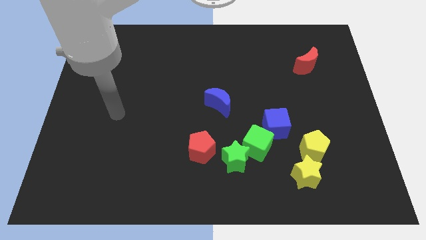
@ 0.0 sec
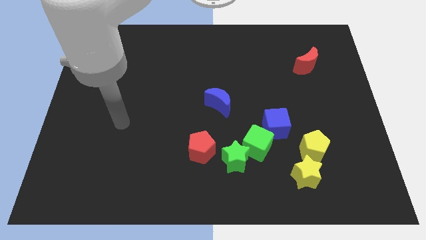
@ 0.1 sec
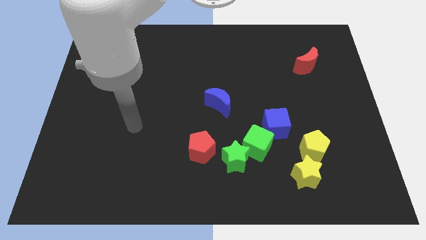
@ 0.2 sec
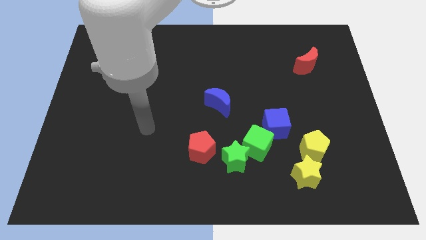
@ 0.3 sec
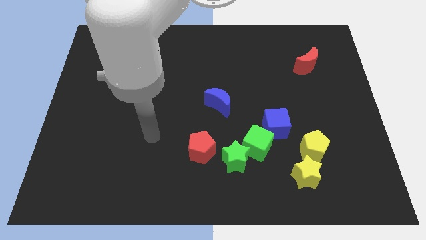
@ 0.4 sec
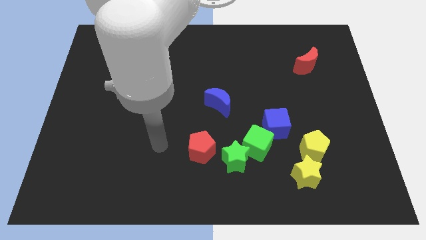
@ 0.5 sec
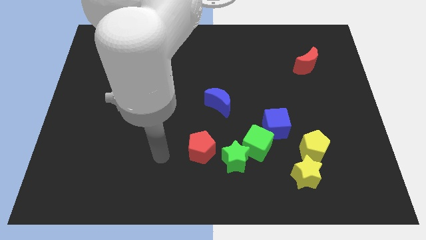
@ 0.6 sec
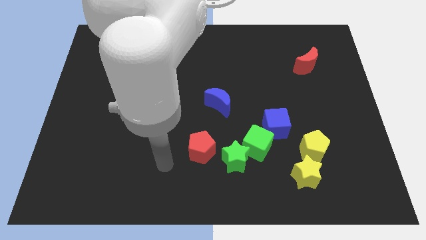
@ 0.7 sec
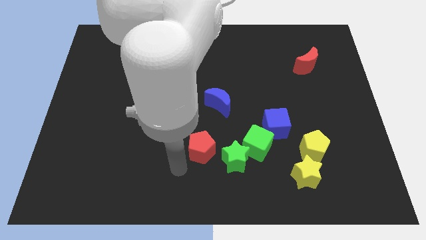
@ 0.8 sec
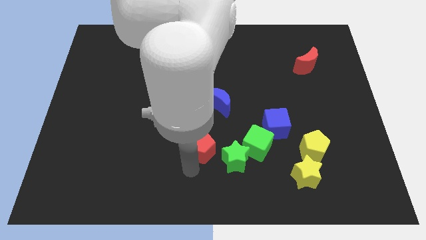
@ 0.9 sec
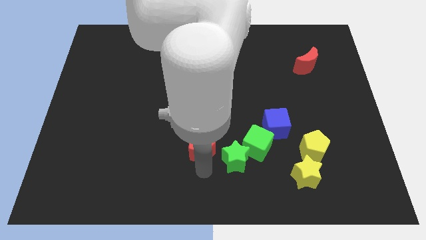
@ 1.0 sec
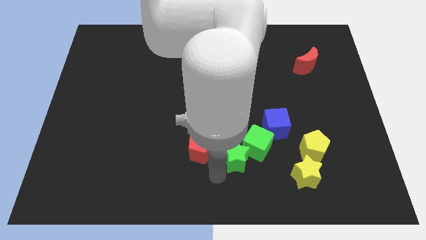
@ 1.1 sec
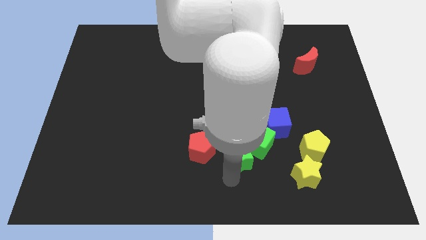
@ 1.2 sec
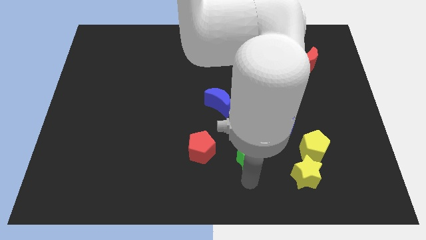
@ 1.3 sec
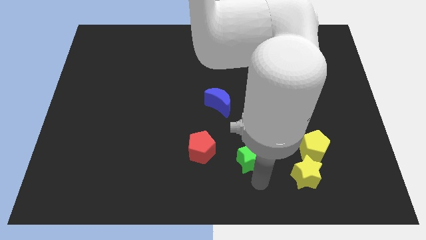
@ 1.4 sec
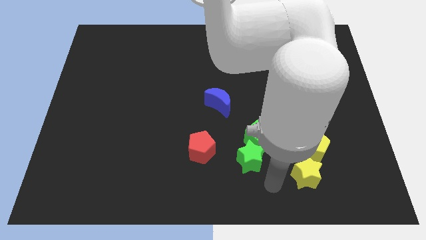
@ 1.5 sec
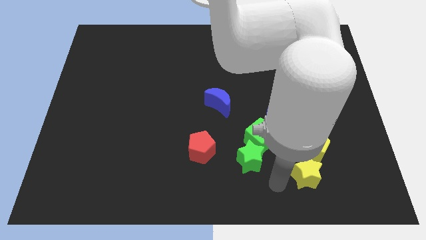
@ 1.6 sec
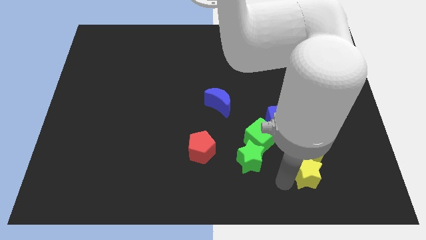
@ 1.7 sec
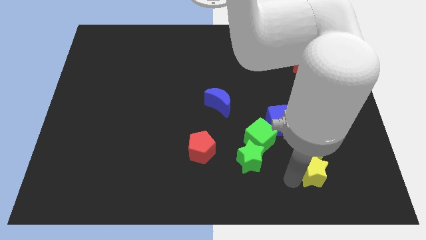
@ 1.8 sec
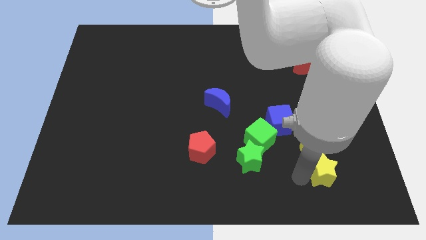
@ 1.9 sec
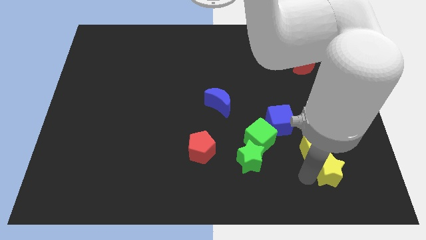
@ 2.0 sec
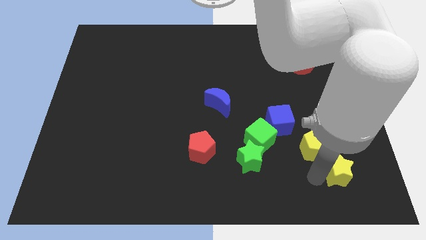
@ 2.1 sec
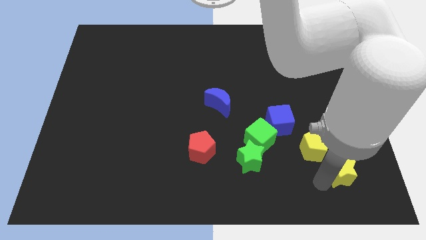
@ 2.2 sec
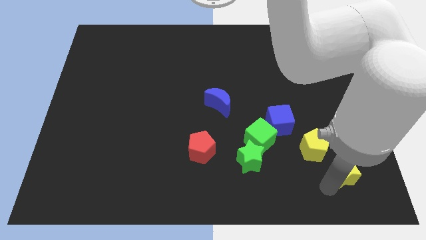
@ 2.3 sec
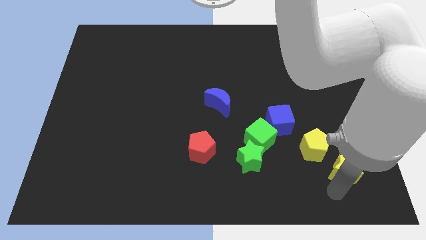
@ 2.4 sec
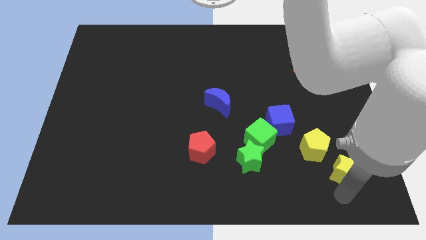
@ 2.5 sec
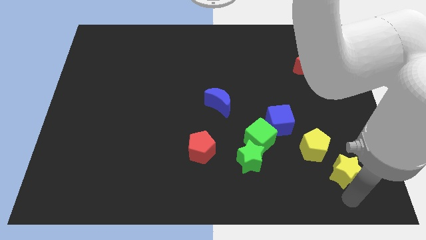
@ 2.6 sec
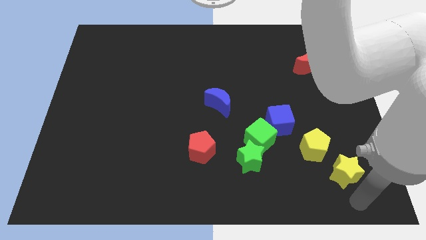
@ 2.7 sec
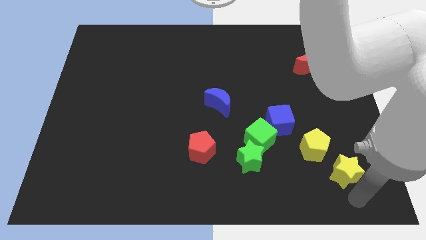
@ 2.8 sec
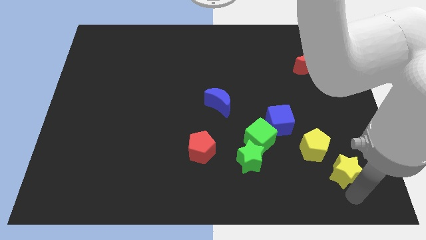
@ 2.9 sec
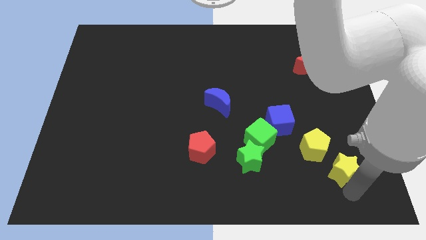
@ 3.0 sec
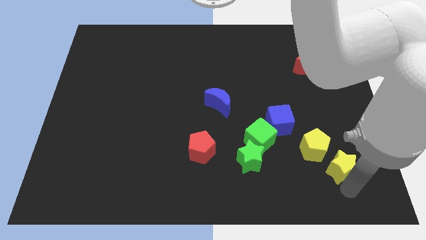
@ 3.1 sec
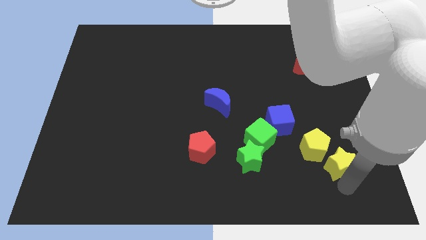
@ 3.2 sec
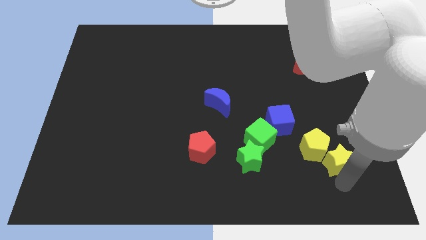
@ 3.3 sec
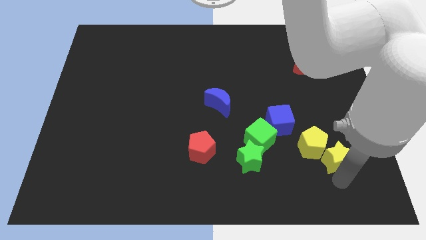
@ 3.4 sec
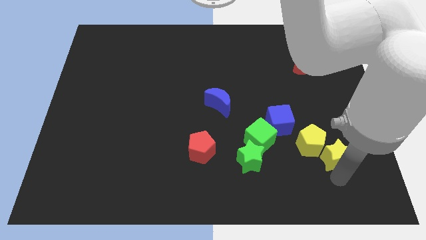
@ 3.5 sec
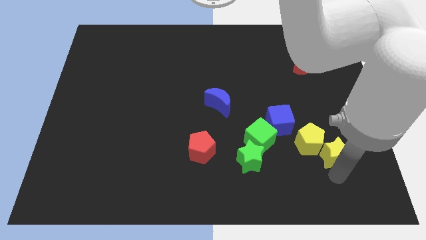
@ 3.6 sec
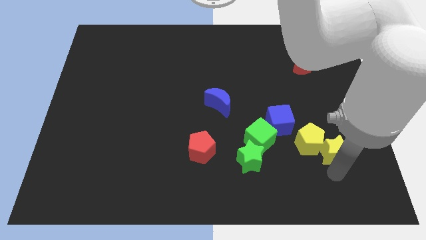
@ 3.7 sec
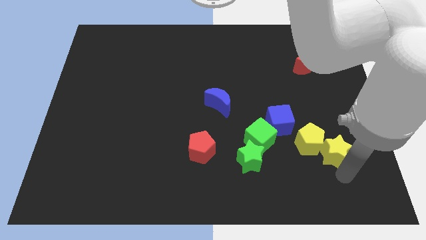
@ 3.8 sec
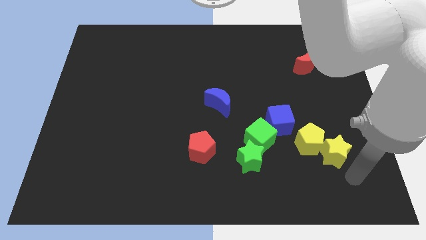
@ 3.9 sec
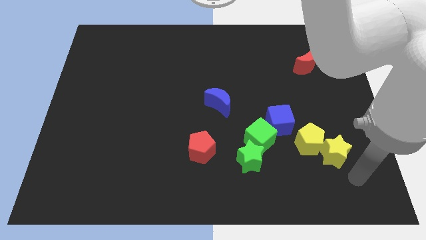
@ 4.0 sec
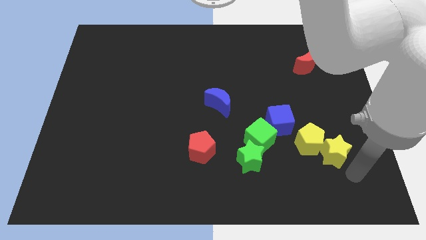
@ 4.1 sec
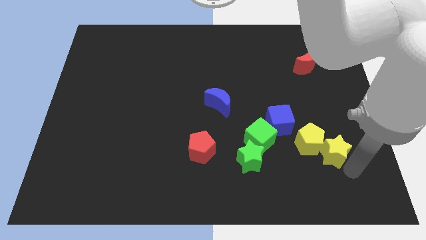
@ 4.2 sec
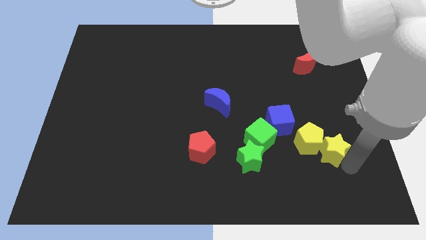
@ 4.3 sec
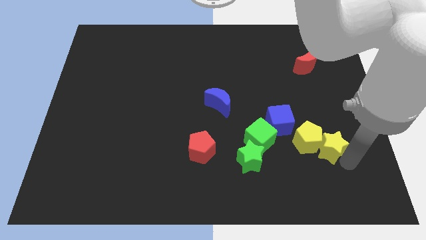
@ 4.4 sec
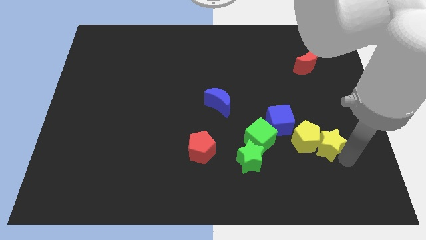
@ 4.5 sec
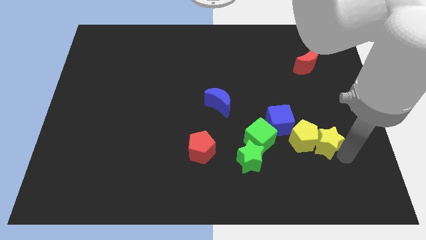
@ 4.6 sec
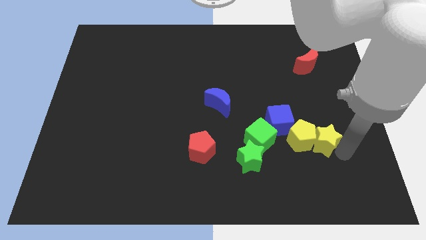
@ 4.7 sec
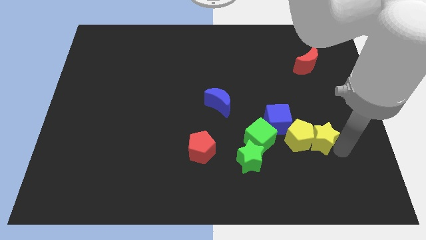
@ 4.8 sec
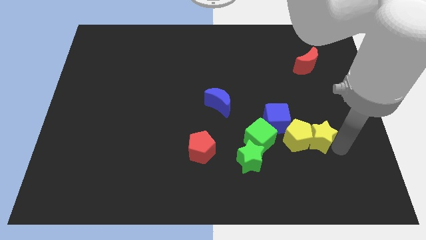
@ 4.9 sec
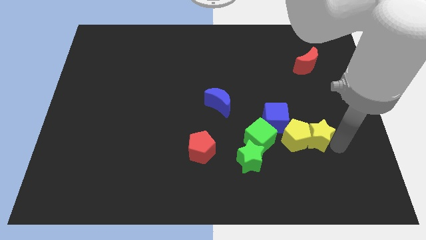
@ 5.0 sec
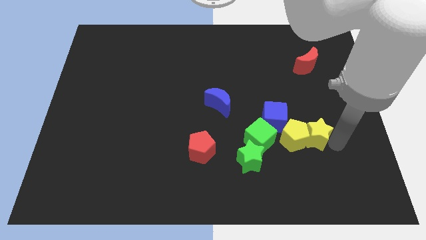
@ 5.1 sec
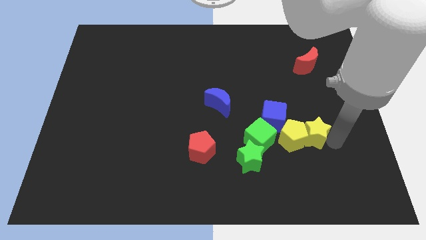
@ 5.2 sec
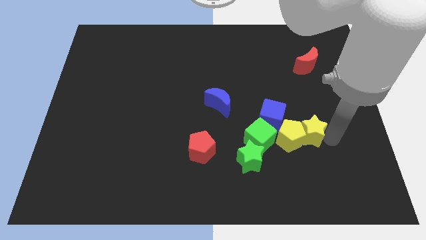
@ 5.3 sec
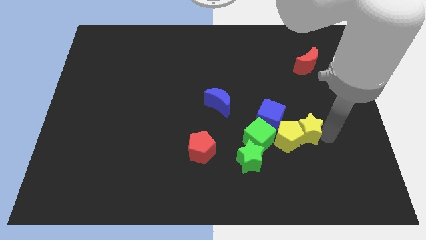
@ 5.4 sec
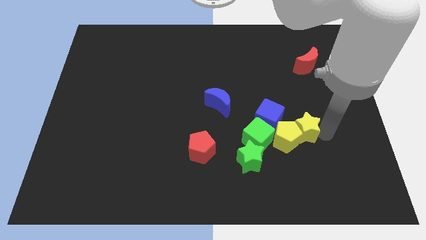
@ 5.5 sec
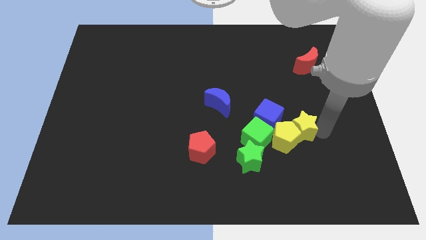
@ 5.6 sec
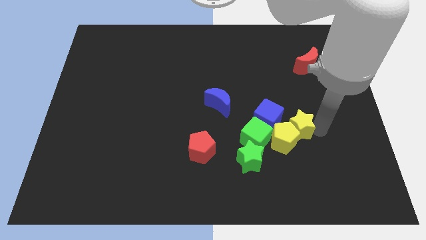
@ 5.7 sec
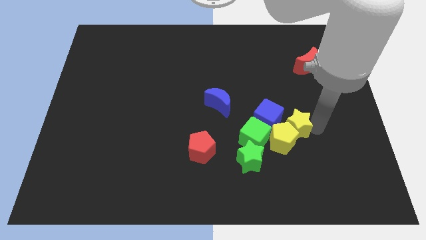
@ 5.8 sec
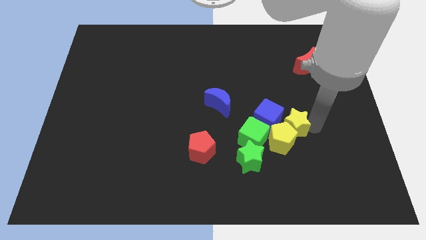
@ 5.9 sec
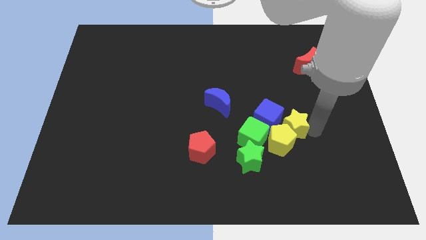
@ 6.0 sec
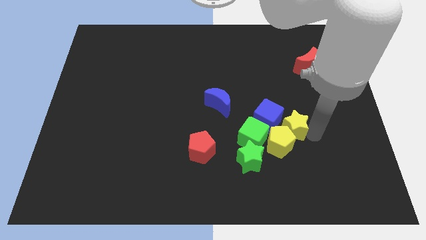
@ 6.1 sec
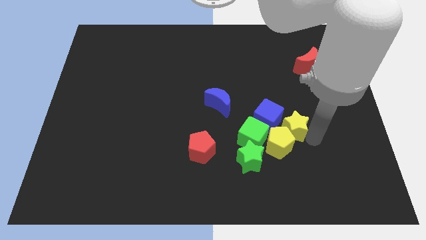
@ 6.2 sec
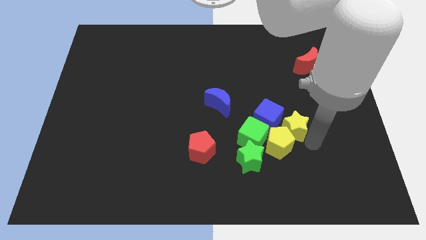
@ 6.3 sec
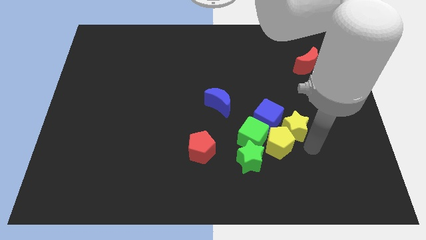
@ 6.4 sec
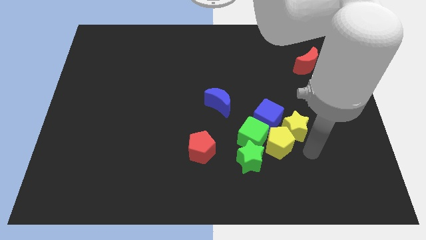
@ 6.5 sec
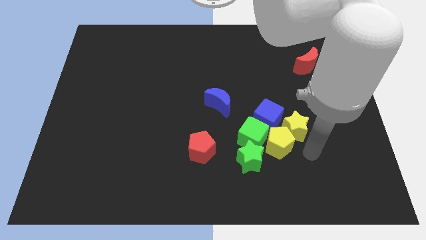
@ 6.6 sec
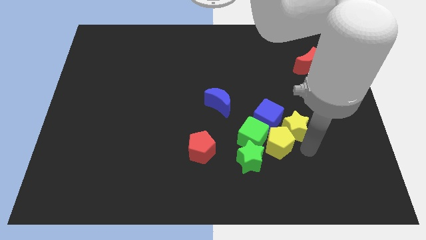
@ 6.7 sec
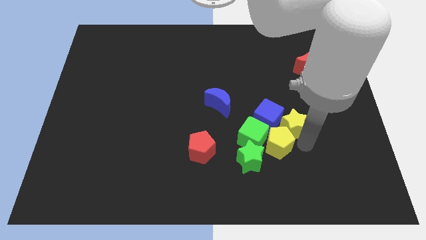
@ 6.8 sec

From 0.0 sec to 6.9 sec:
move the yellow star diagonally upwards and to the left a little bit

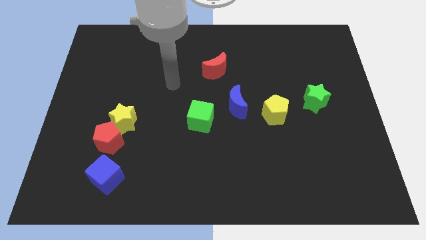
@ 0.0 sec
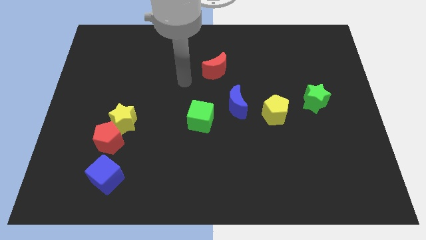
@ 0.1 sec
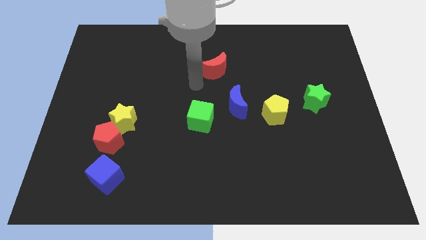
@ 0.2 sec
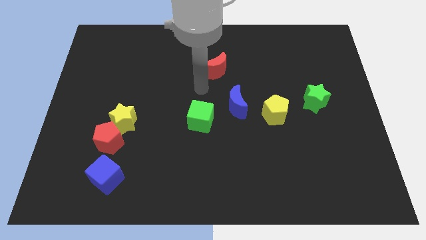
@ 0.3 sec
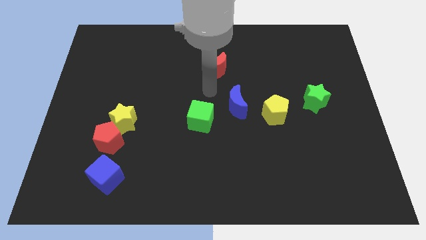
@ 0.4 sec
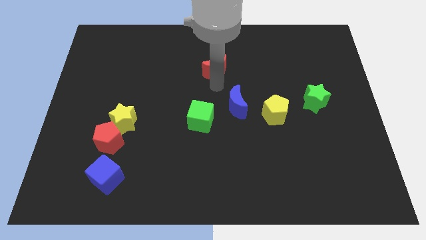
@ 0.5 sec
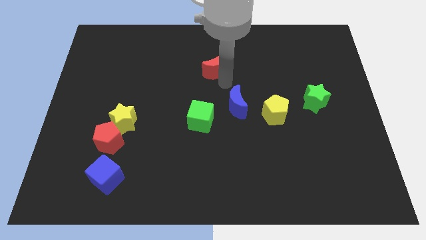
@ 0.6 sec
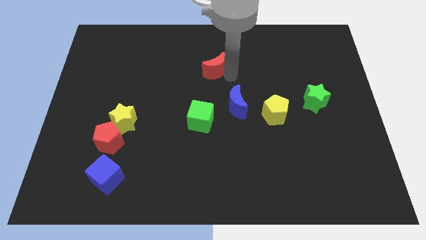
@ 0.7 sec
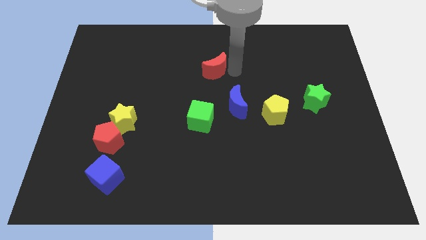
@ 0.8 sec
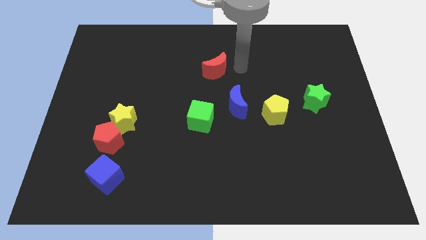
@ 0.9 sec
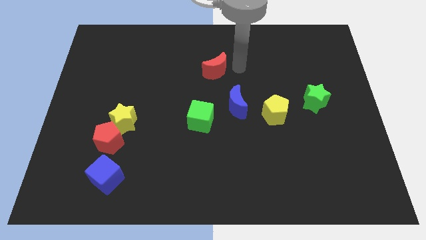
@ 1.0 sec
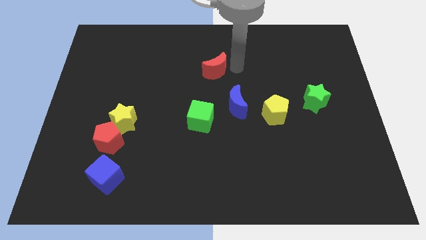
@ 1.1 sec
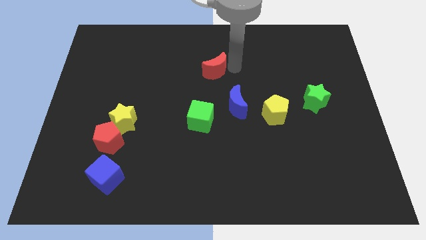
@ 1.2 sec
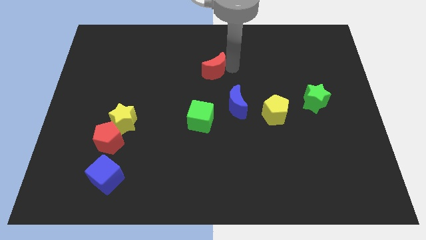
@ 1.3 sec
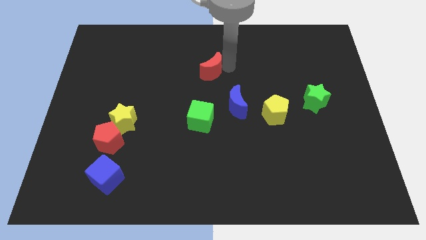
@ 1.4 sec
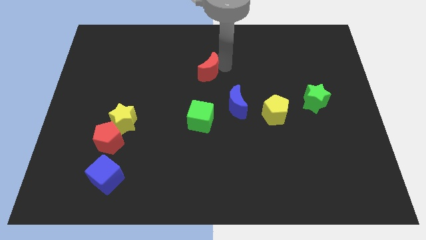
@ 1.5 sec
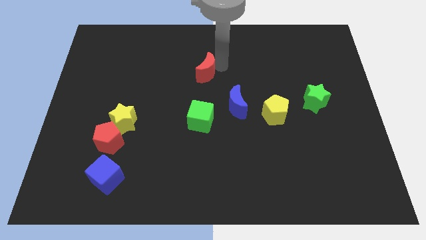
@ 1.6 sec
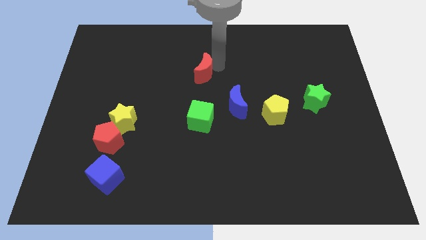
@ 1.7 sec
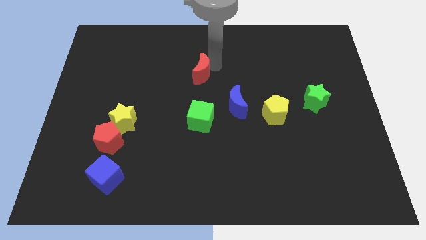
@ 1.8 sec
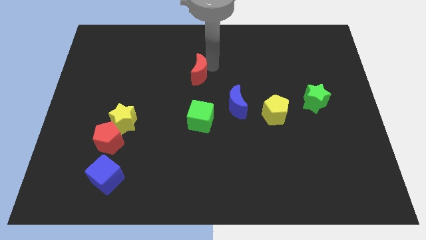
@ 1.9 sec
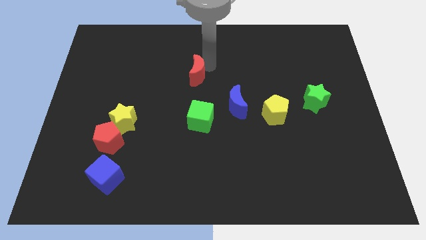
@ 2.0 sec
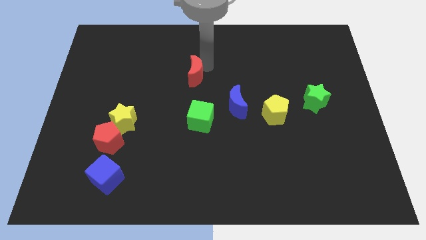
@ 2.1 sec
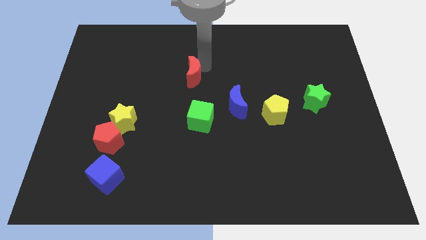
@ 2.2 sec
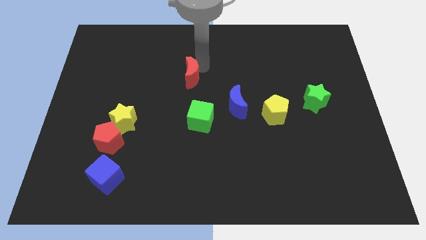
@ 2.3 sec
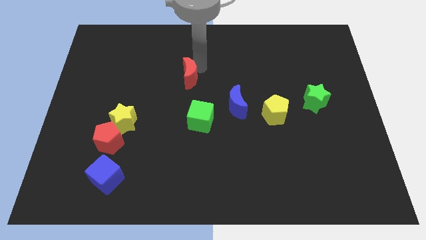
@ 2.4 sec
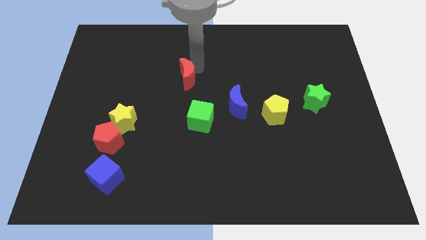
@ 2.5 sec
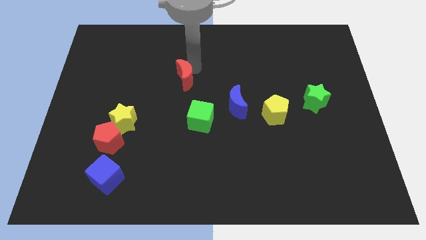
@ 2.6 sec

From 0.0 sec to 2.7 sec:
push the red moon down and to the left somewhat
